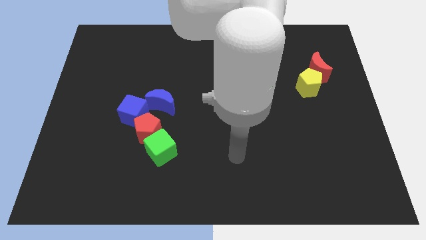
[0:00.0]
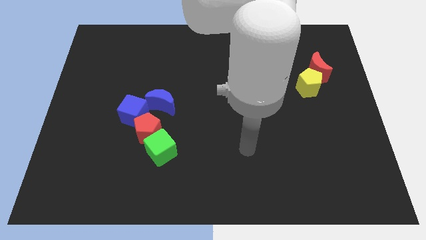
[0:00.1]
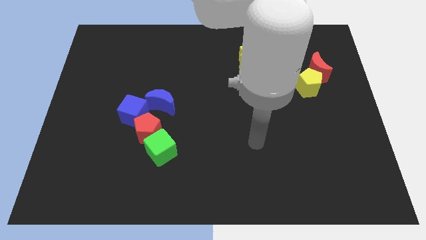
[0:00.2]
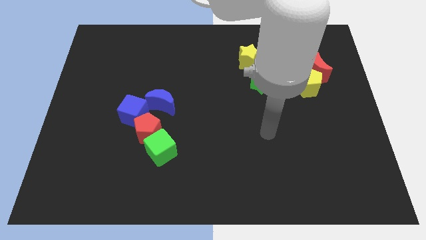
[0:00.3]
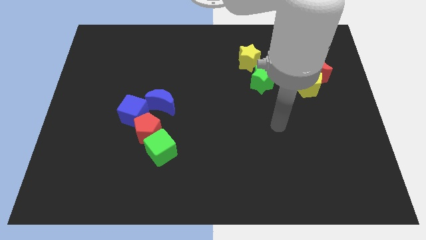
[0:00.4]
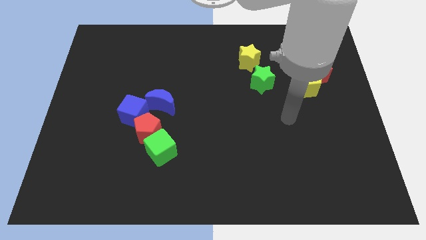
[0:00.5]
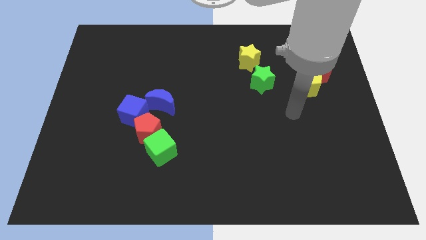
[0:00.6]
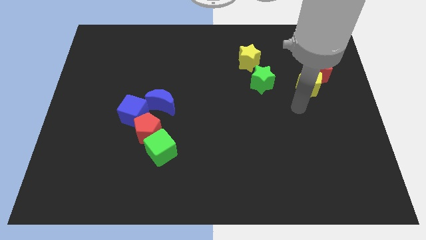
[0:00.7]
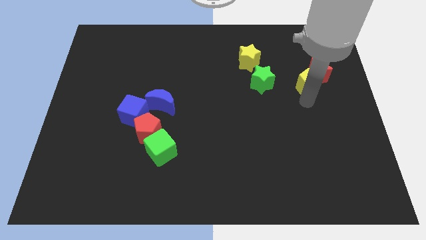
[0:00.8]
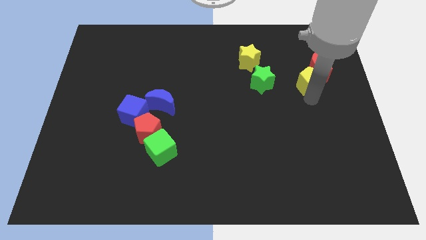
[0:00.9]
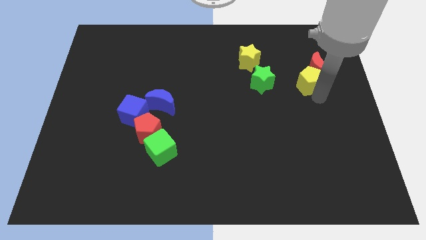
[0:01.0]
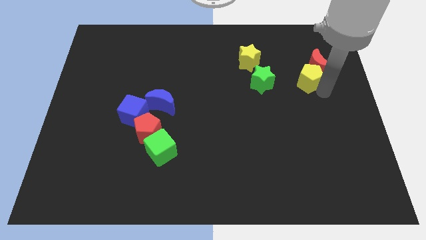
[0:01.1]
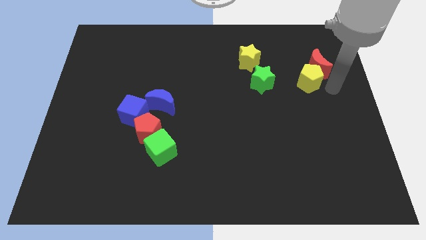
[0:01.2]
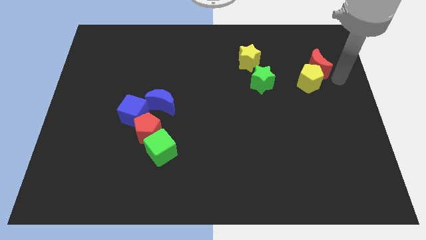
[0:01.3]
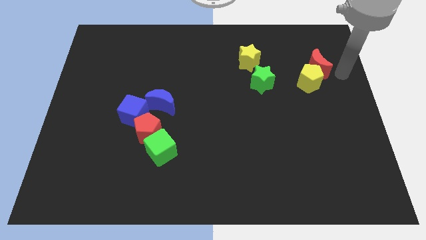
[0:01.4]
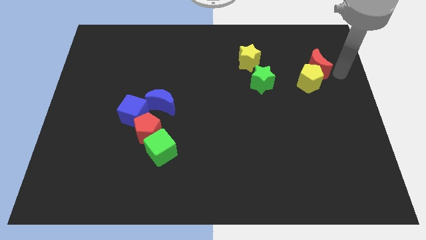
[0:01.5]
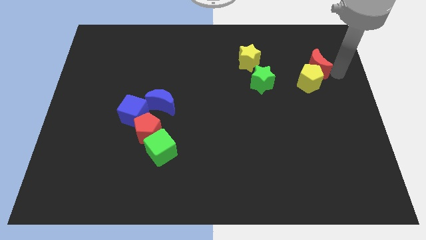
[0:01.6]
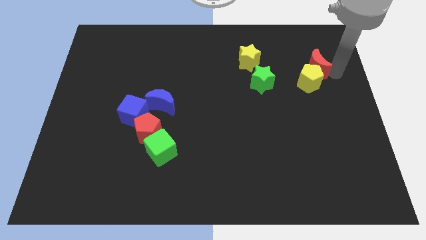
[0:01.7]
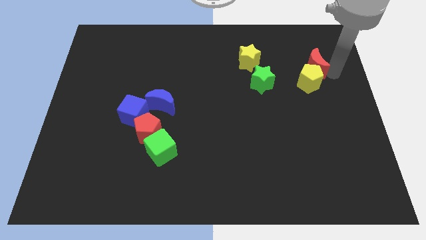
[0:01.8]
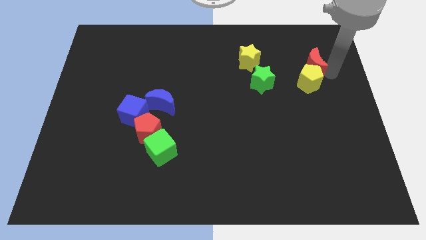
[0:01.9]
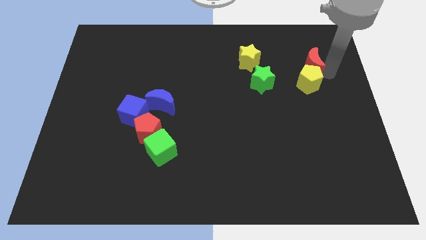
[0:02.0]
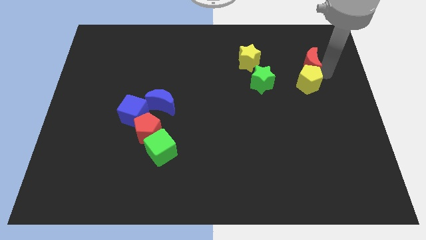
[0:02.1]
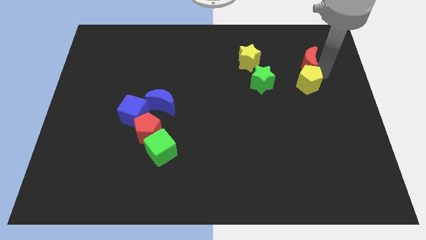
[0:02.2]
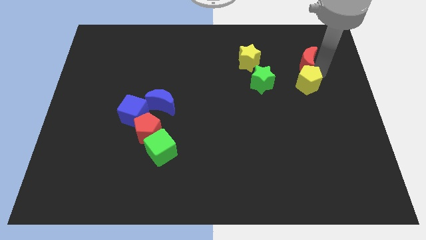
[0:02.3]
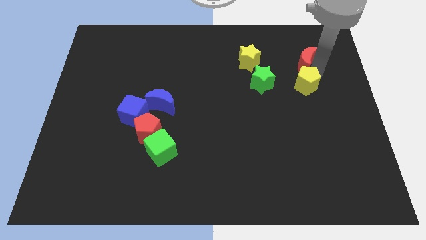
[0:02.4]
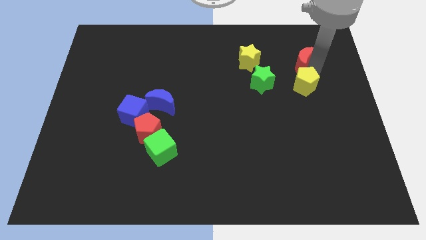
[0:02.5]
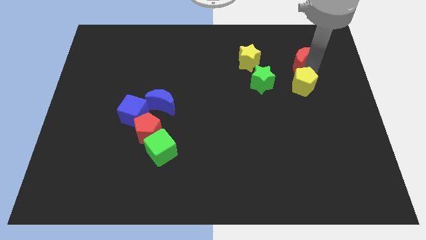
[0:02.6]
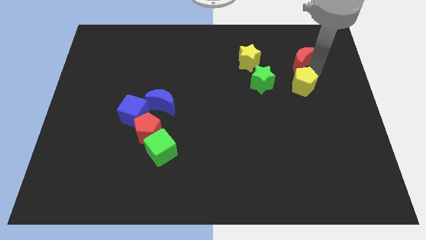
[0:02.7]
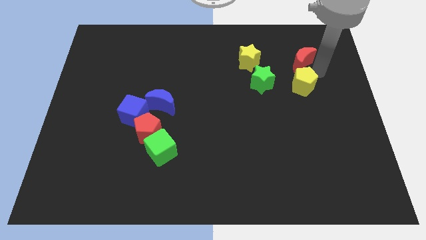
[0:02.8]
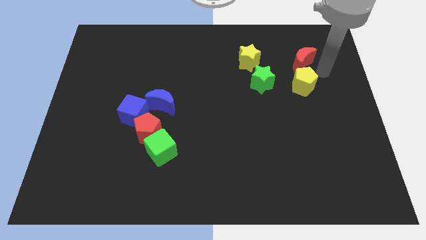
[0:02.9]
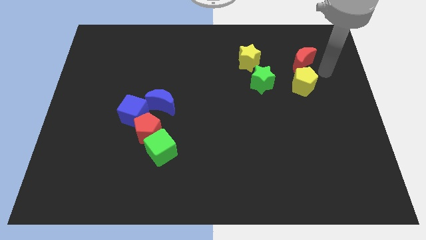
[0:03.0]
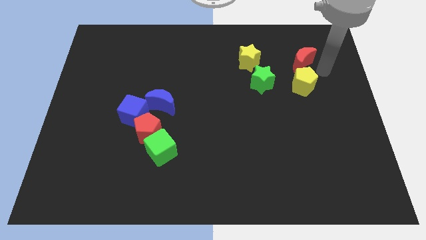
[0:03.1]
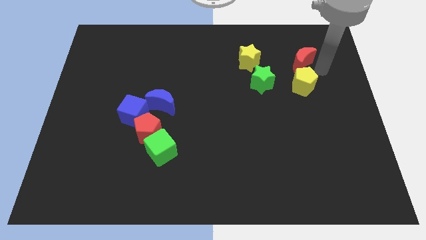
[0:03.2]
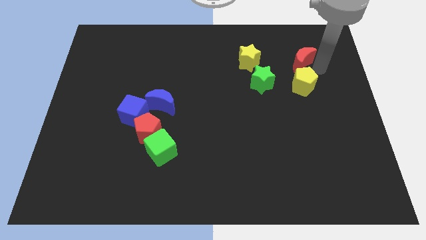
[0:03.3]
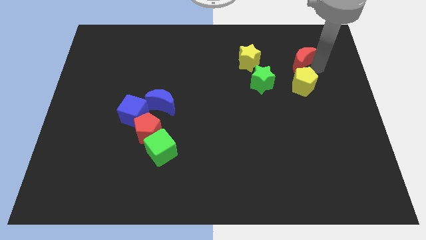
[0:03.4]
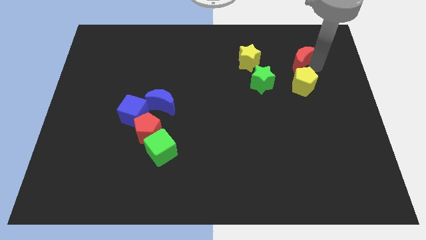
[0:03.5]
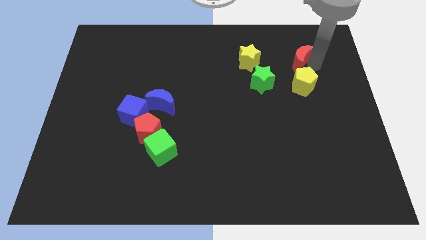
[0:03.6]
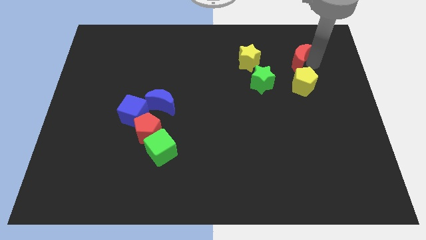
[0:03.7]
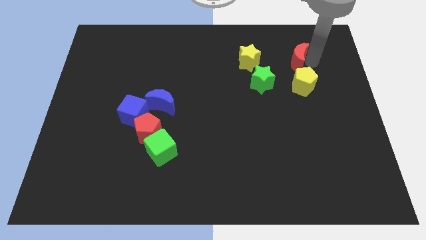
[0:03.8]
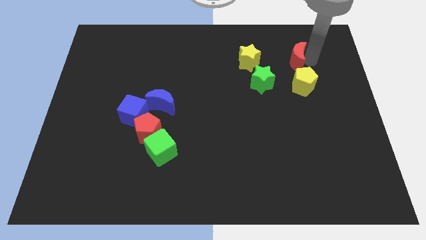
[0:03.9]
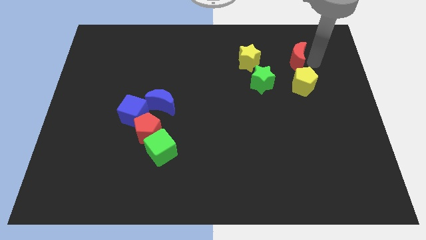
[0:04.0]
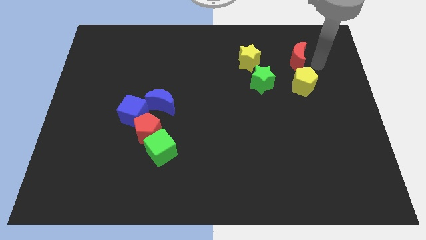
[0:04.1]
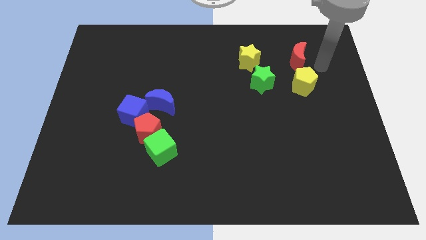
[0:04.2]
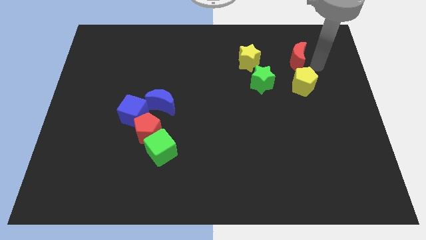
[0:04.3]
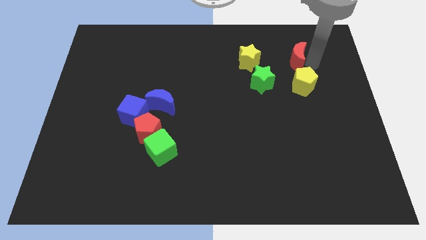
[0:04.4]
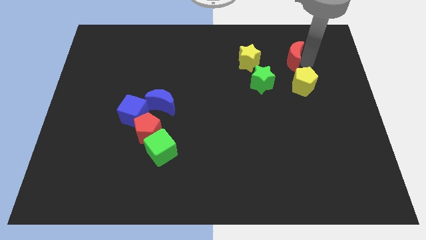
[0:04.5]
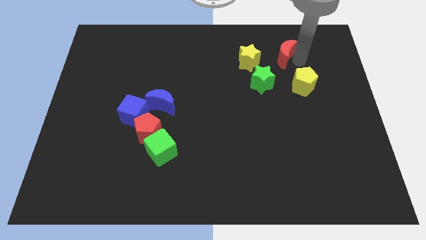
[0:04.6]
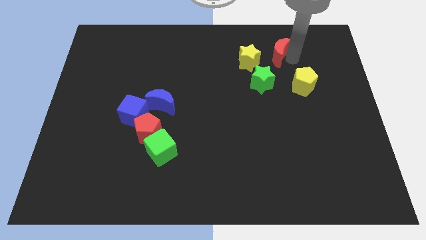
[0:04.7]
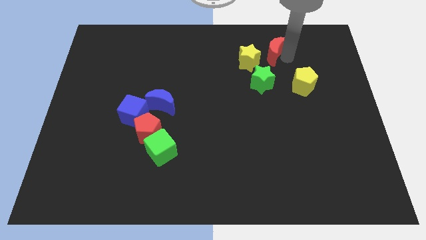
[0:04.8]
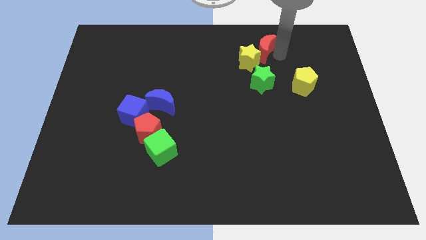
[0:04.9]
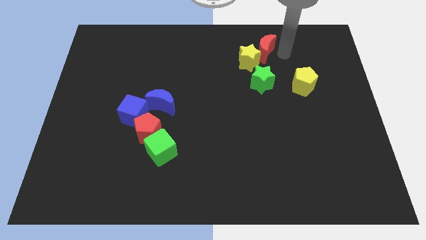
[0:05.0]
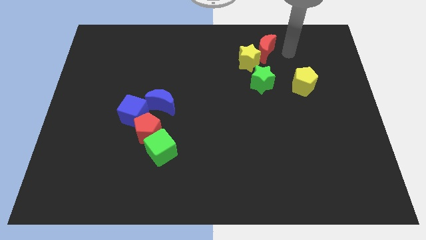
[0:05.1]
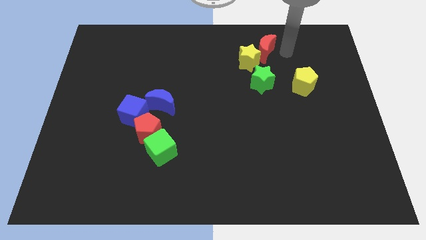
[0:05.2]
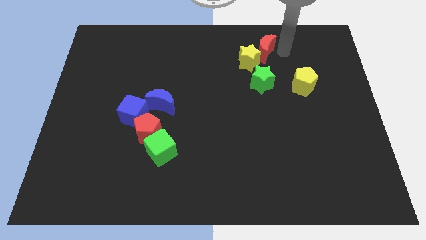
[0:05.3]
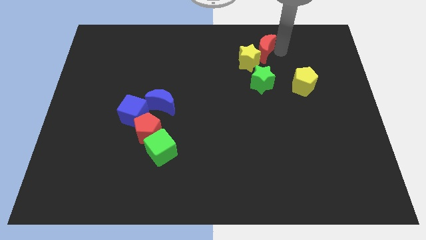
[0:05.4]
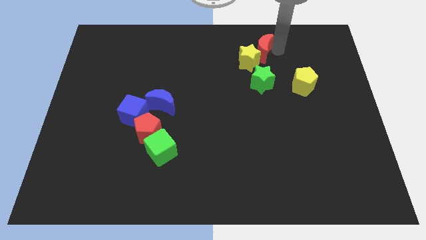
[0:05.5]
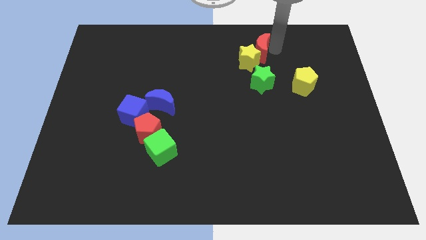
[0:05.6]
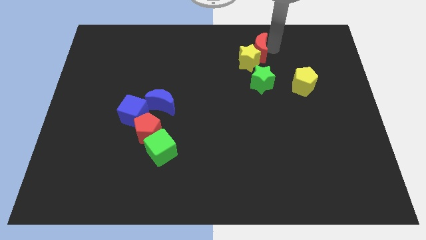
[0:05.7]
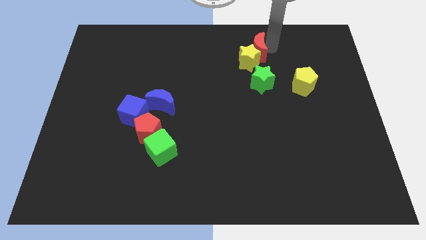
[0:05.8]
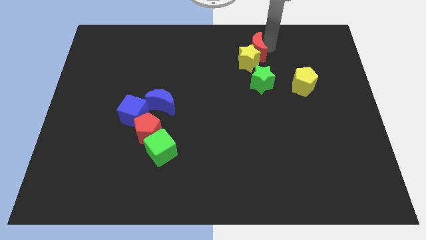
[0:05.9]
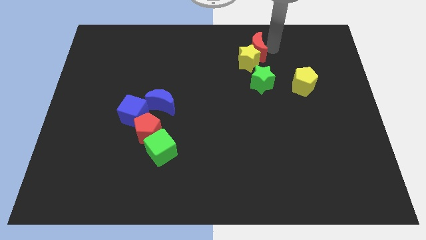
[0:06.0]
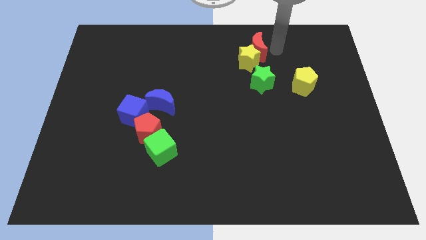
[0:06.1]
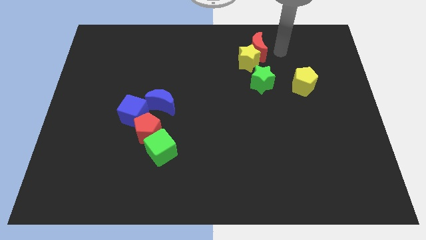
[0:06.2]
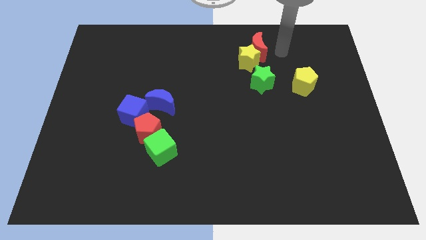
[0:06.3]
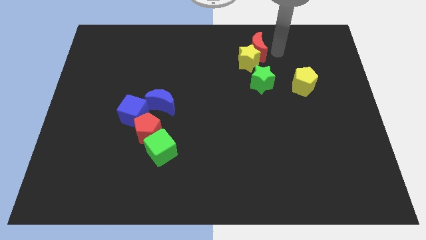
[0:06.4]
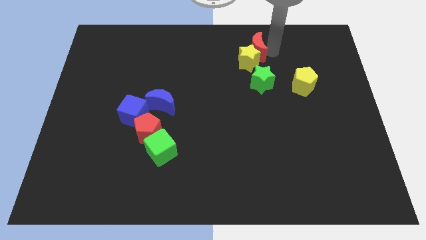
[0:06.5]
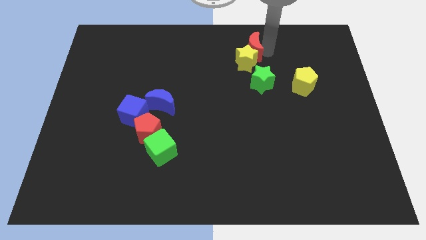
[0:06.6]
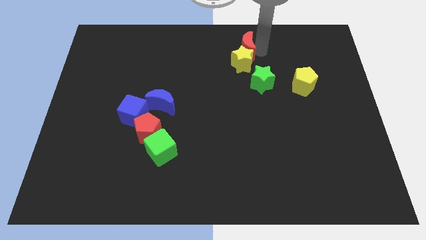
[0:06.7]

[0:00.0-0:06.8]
push the red moon to the top side
